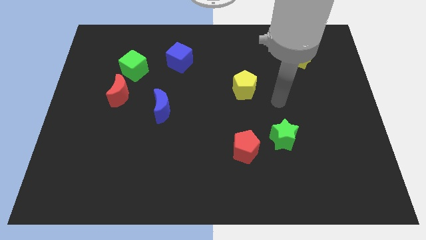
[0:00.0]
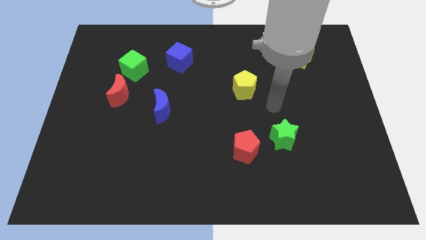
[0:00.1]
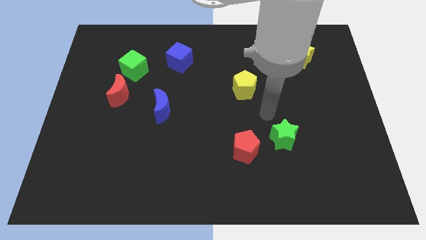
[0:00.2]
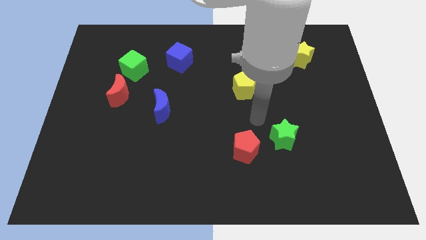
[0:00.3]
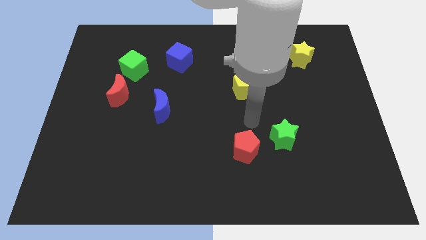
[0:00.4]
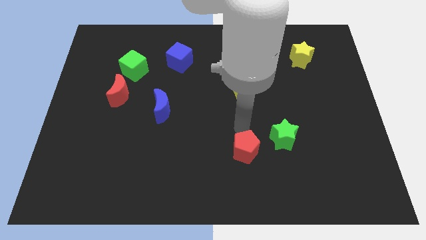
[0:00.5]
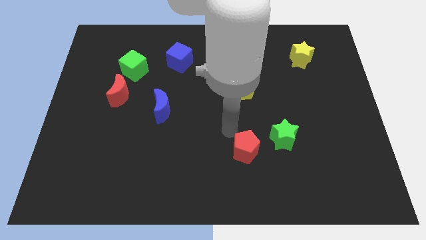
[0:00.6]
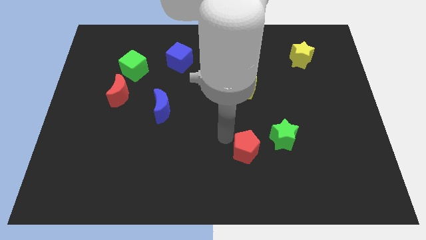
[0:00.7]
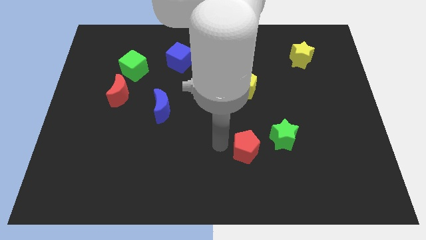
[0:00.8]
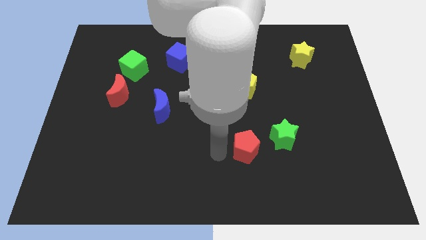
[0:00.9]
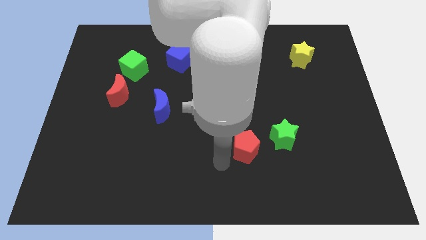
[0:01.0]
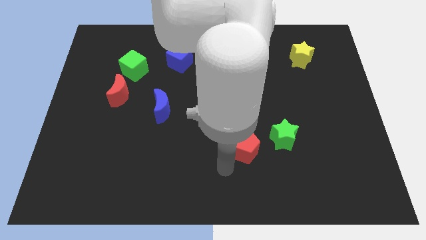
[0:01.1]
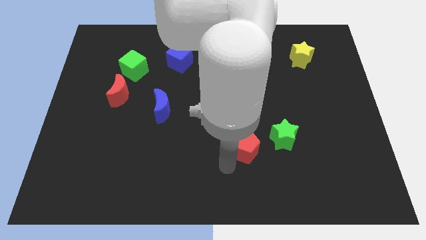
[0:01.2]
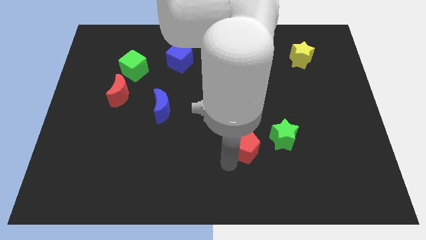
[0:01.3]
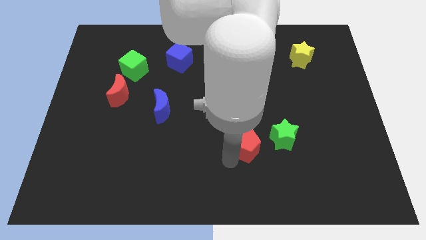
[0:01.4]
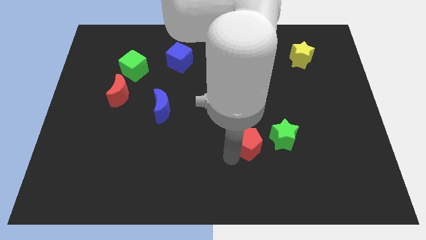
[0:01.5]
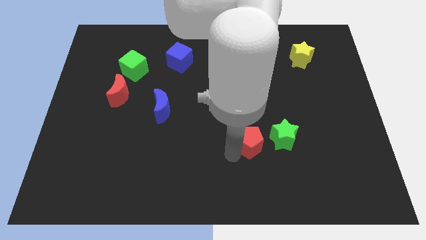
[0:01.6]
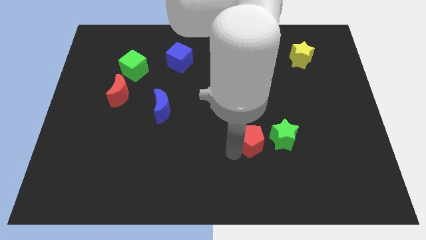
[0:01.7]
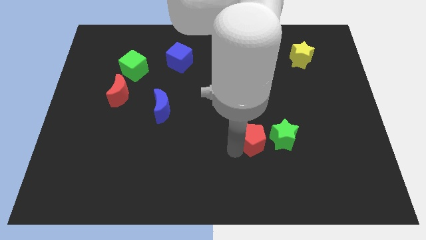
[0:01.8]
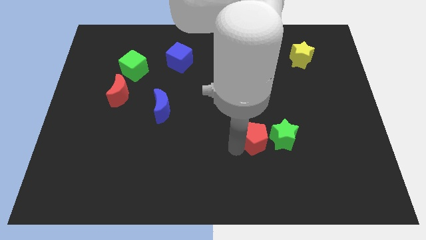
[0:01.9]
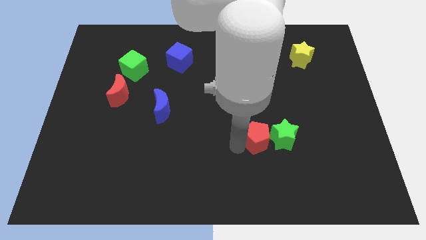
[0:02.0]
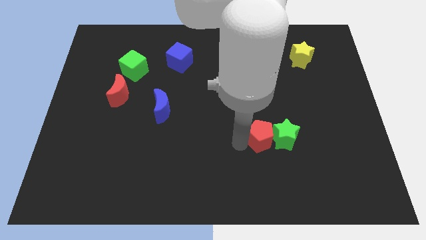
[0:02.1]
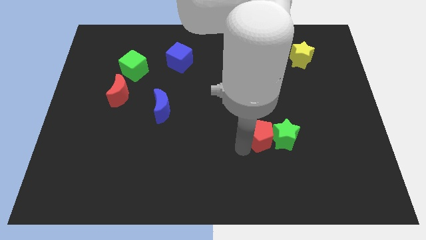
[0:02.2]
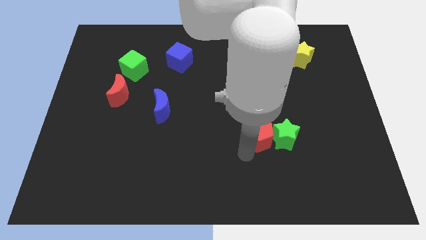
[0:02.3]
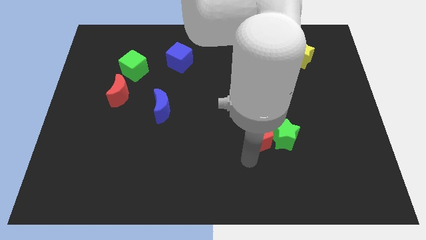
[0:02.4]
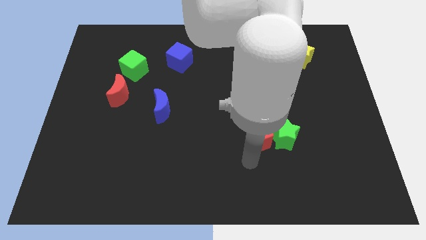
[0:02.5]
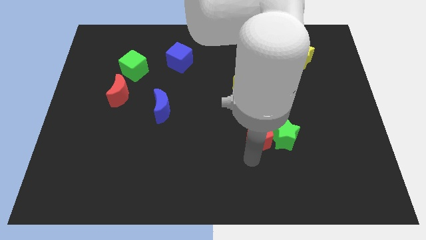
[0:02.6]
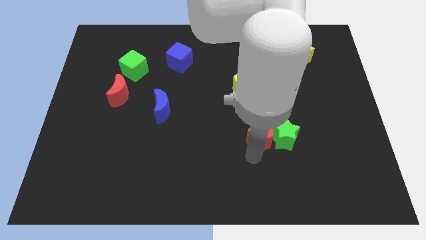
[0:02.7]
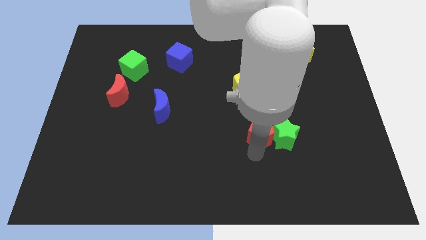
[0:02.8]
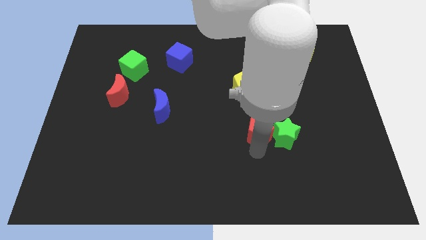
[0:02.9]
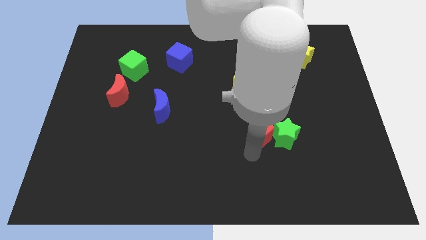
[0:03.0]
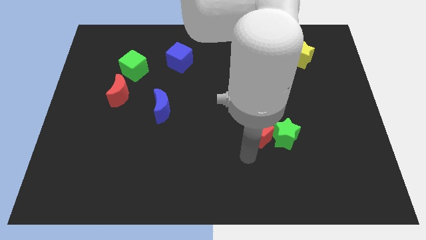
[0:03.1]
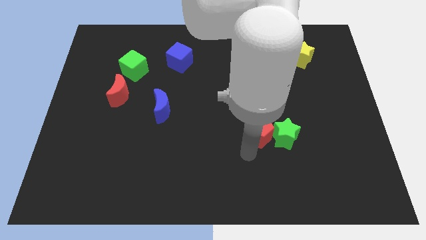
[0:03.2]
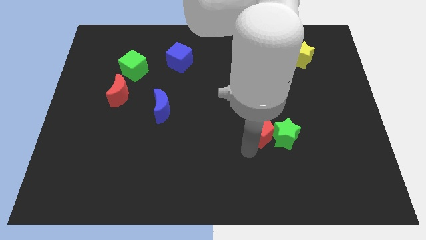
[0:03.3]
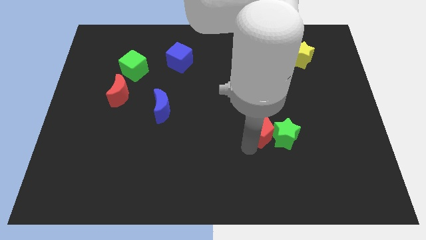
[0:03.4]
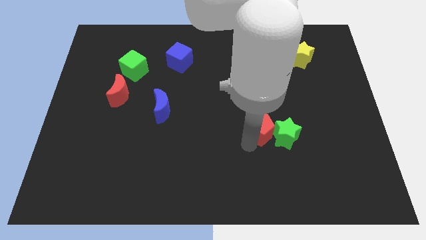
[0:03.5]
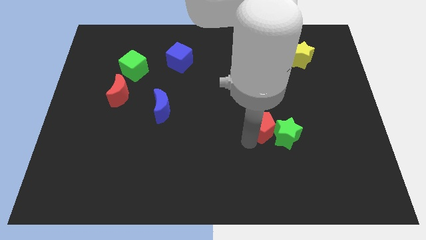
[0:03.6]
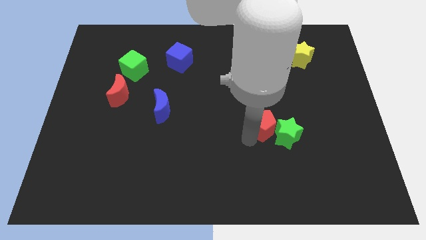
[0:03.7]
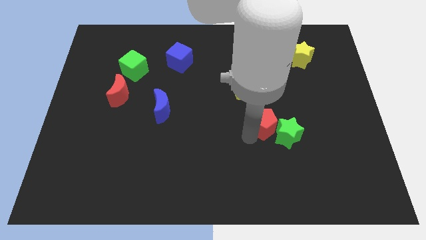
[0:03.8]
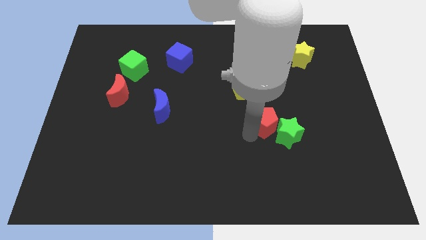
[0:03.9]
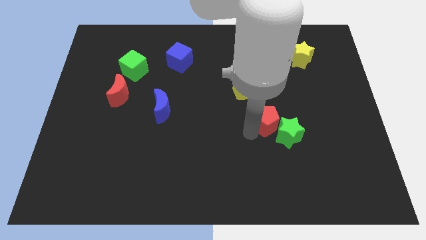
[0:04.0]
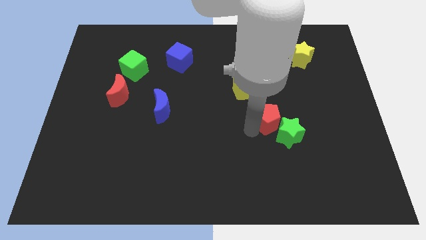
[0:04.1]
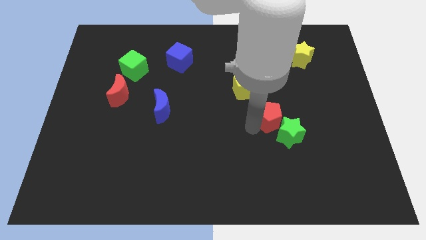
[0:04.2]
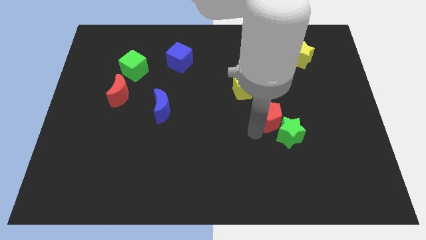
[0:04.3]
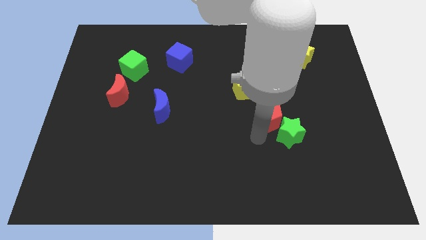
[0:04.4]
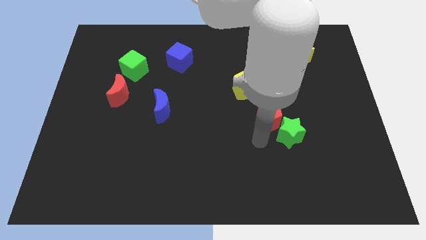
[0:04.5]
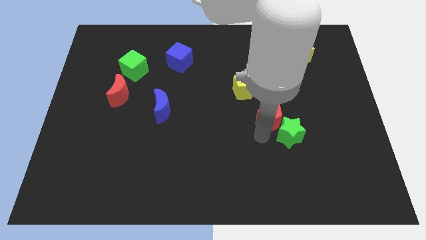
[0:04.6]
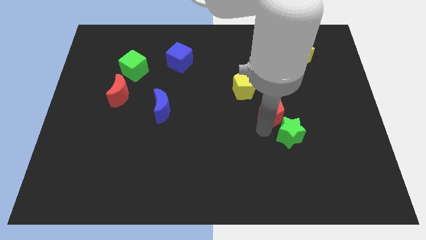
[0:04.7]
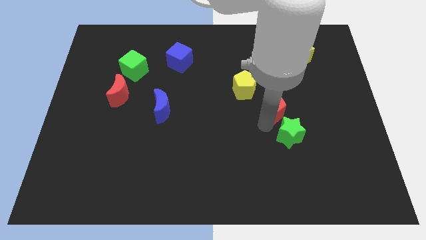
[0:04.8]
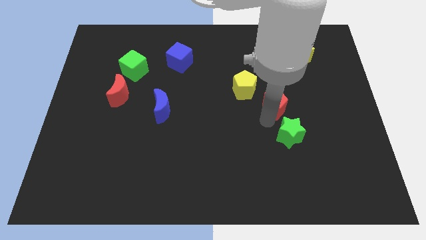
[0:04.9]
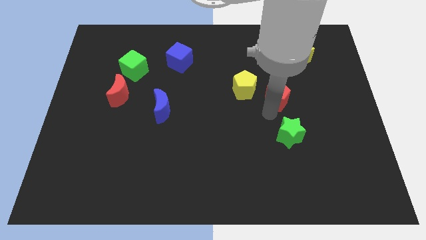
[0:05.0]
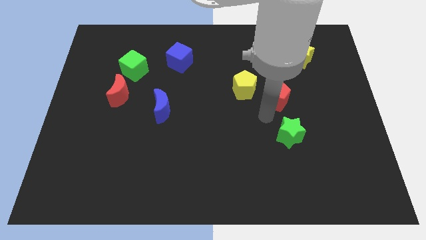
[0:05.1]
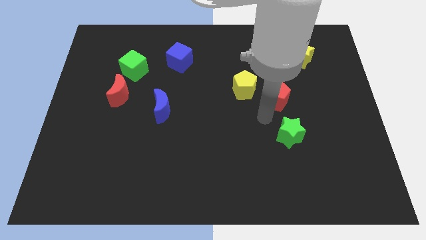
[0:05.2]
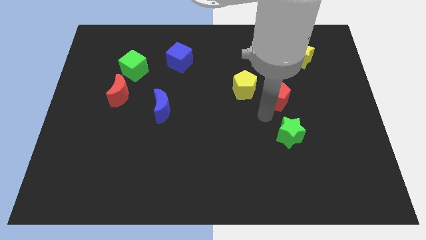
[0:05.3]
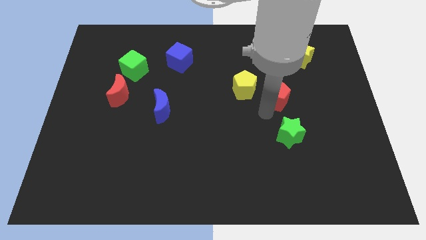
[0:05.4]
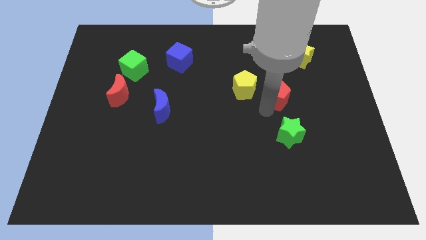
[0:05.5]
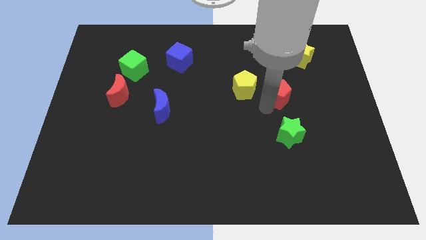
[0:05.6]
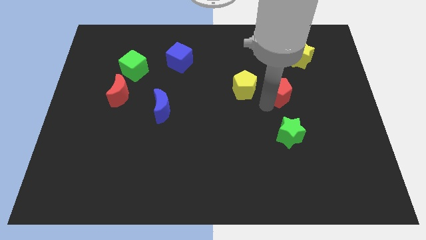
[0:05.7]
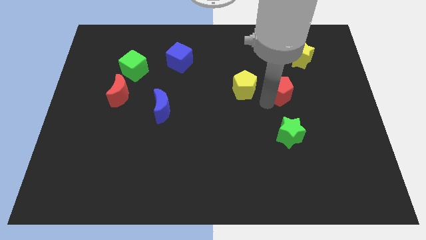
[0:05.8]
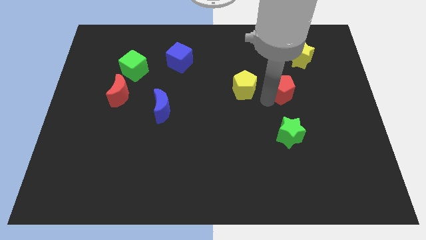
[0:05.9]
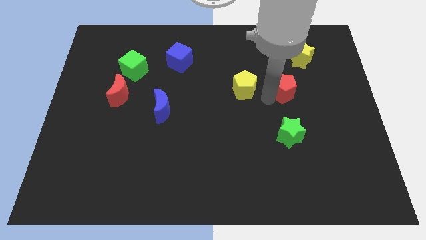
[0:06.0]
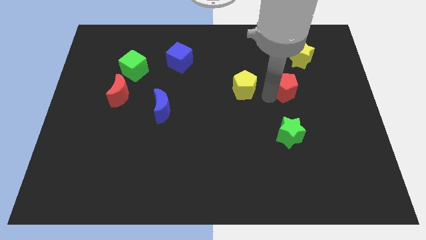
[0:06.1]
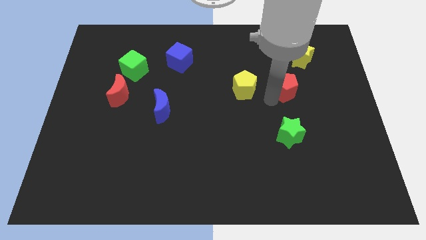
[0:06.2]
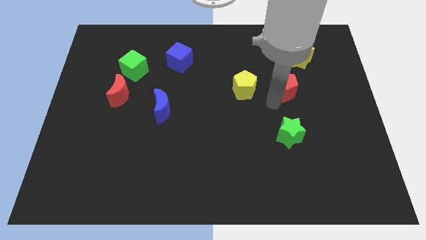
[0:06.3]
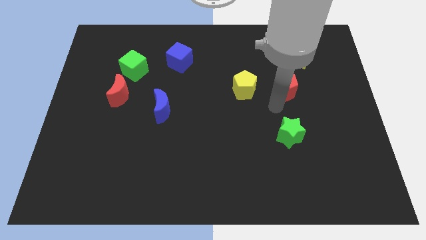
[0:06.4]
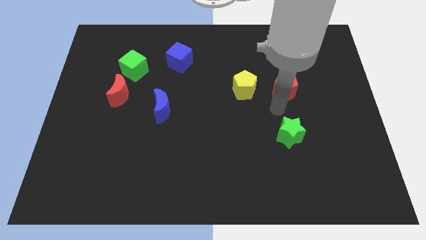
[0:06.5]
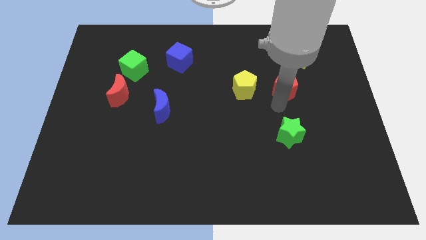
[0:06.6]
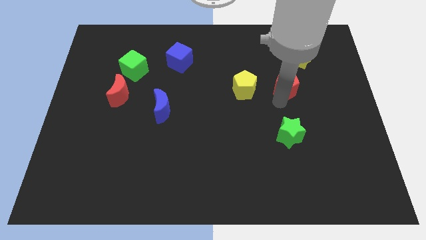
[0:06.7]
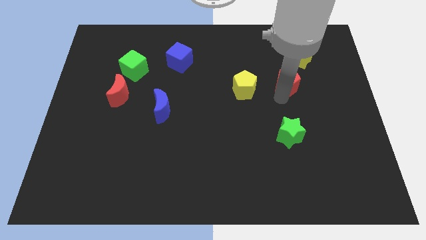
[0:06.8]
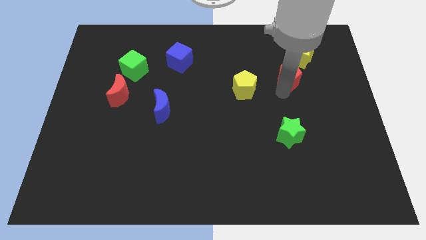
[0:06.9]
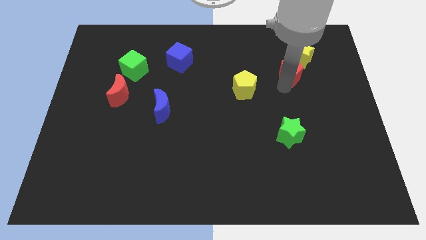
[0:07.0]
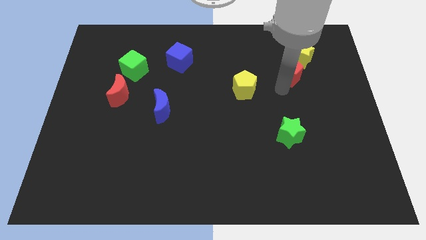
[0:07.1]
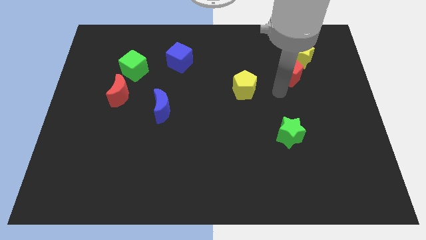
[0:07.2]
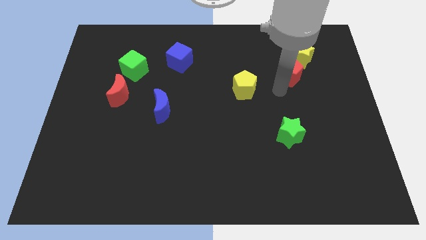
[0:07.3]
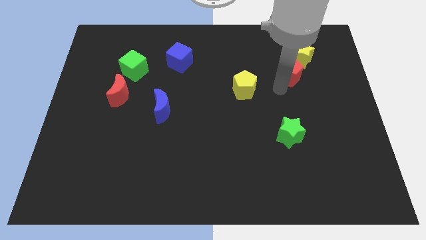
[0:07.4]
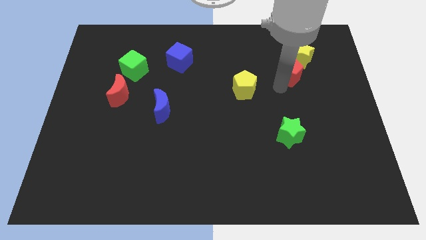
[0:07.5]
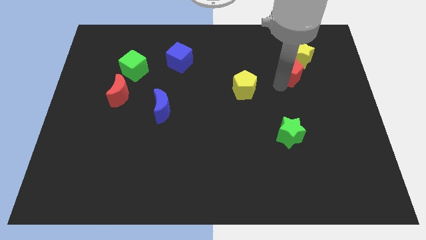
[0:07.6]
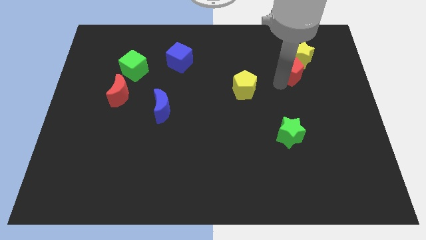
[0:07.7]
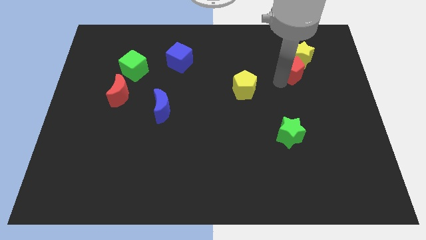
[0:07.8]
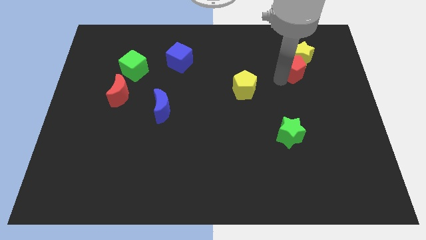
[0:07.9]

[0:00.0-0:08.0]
push the red pentagon close to the yellow star

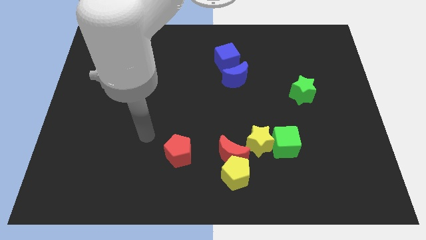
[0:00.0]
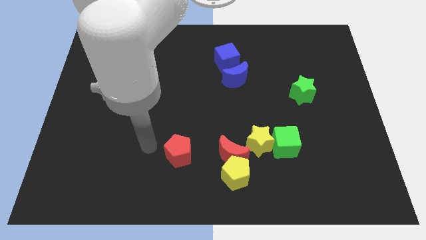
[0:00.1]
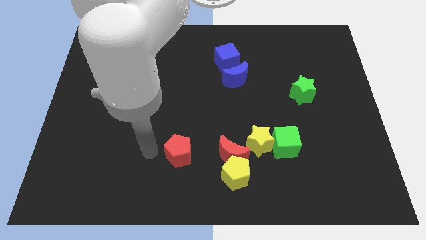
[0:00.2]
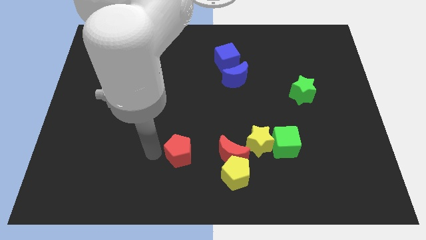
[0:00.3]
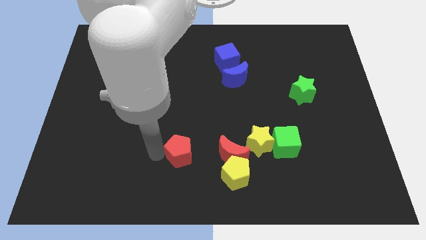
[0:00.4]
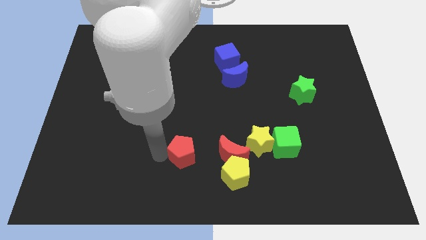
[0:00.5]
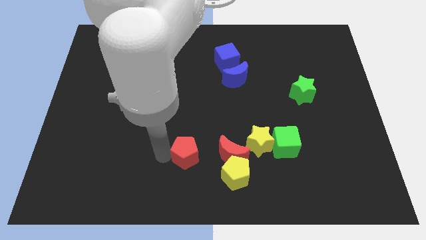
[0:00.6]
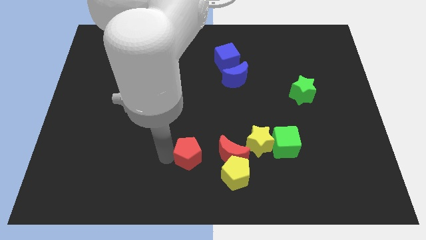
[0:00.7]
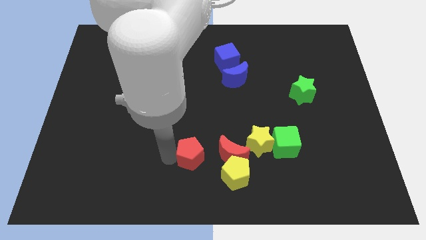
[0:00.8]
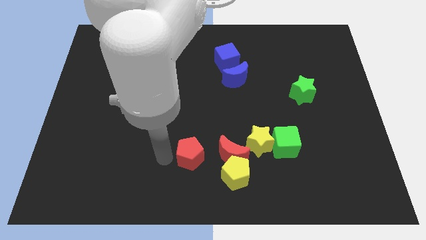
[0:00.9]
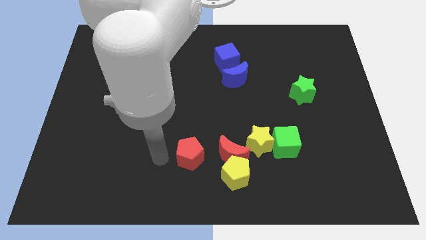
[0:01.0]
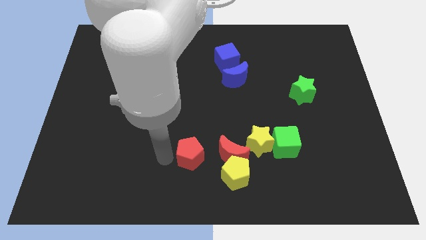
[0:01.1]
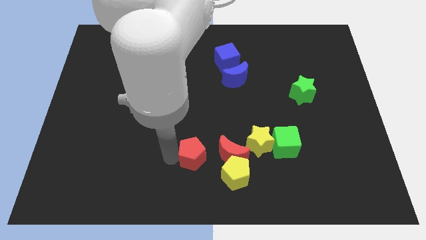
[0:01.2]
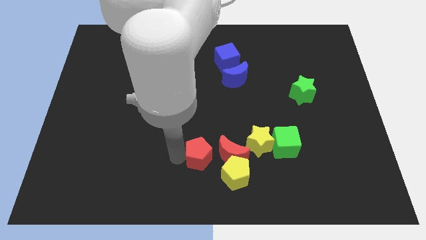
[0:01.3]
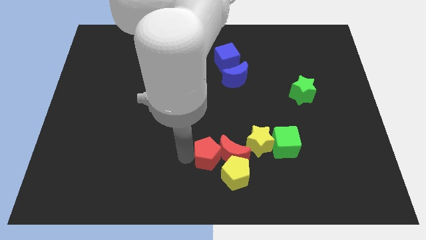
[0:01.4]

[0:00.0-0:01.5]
put the red pentagon next to the red moon
